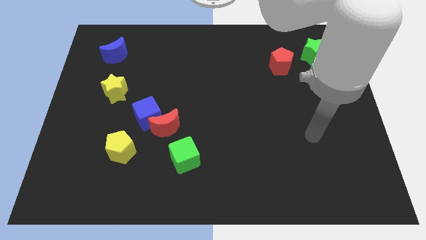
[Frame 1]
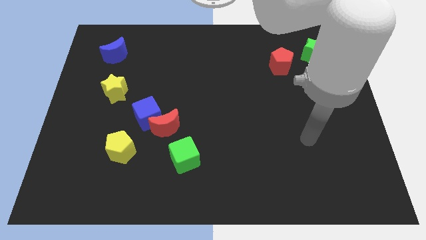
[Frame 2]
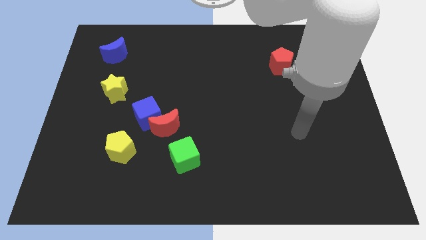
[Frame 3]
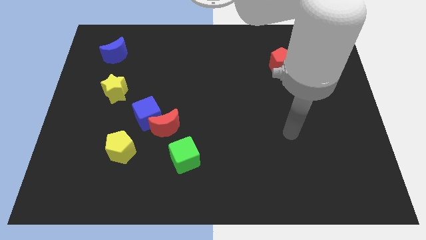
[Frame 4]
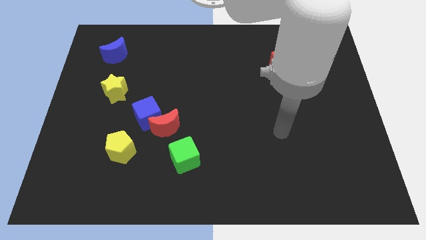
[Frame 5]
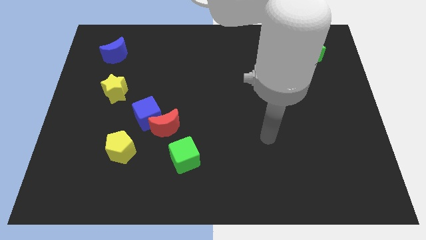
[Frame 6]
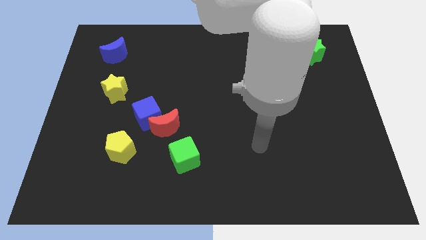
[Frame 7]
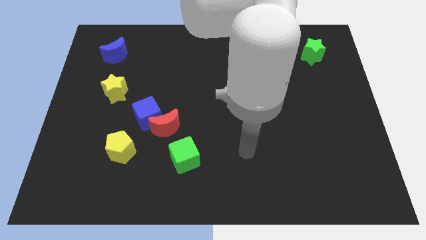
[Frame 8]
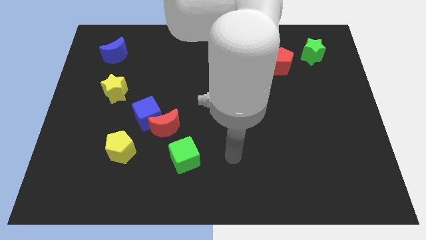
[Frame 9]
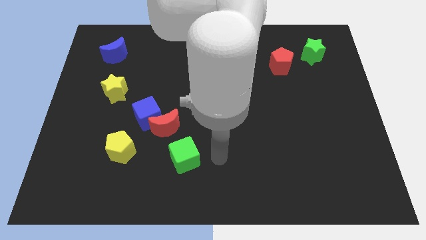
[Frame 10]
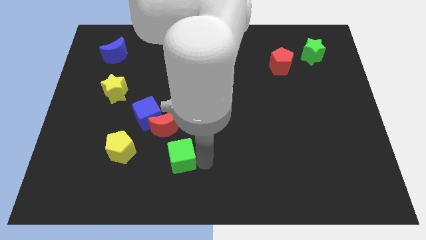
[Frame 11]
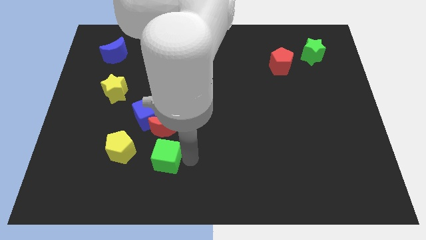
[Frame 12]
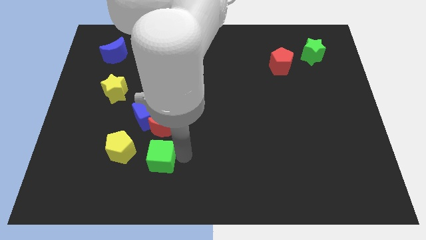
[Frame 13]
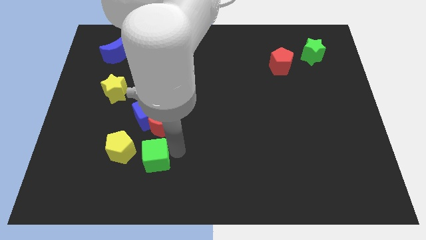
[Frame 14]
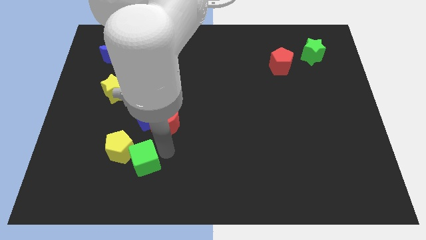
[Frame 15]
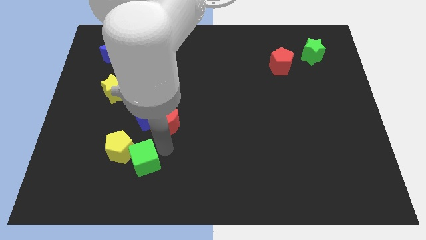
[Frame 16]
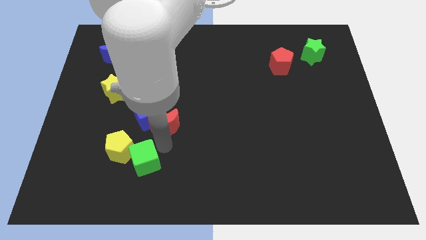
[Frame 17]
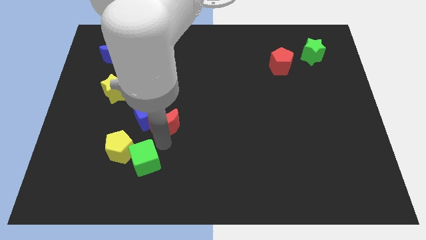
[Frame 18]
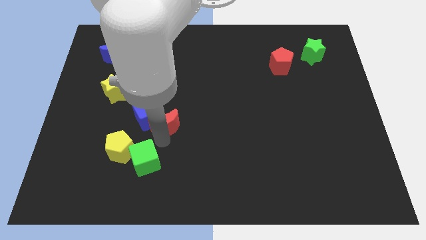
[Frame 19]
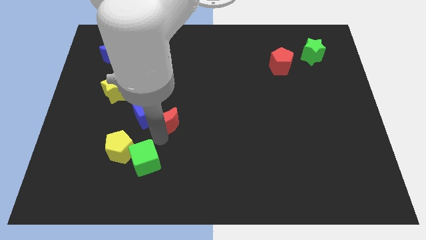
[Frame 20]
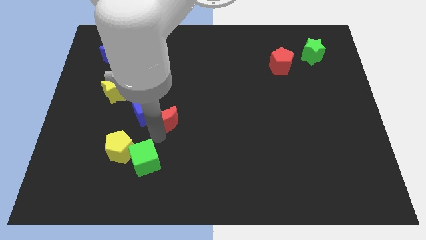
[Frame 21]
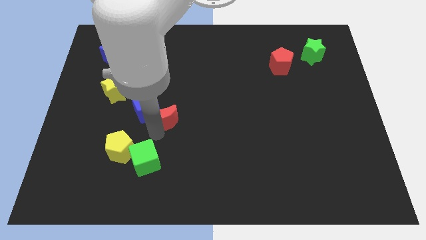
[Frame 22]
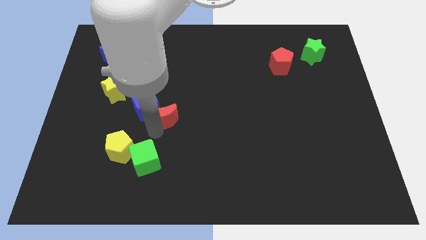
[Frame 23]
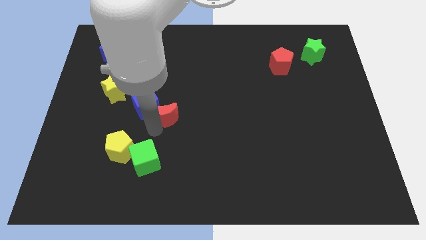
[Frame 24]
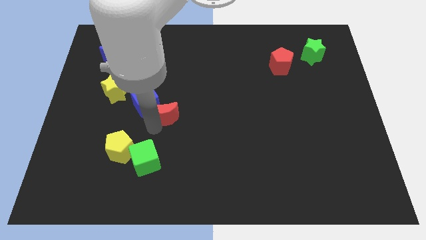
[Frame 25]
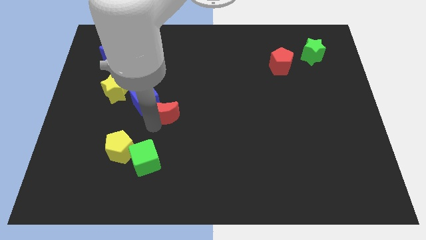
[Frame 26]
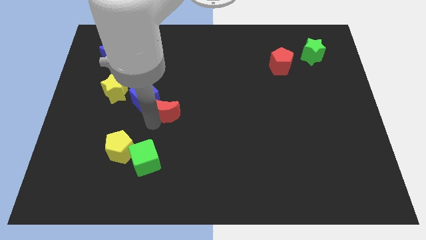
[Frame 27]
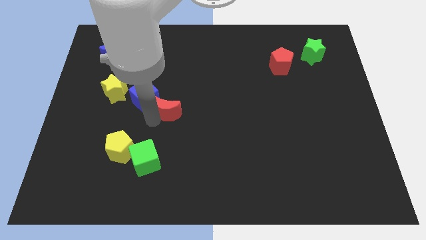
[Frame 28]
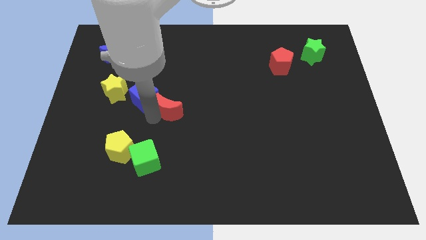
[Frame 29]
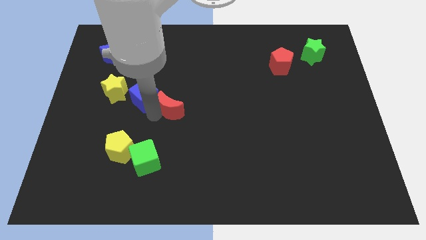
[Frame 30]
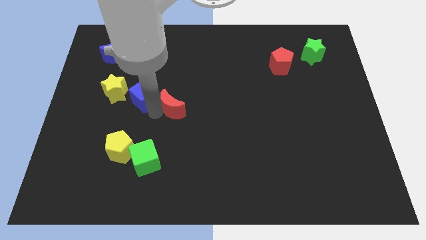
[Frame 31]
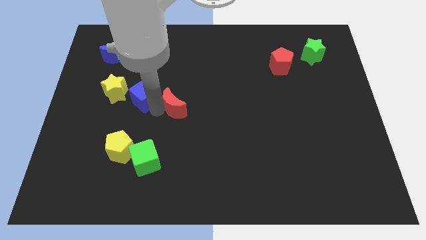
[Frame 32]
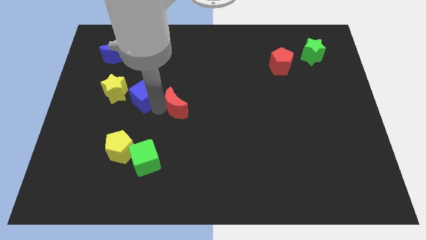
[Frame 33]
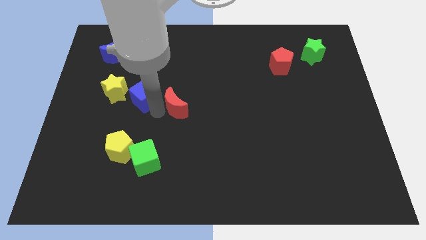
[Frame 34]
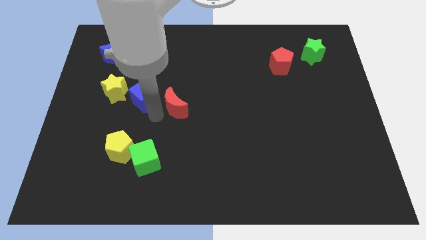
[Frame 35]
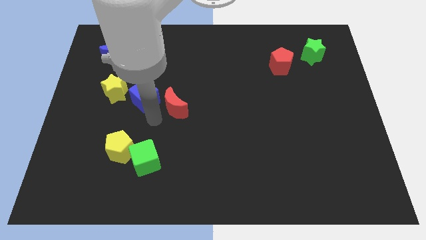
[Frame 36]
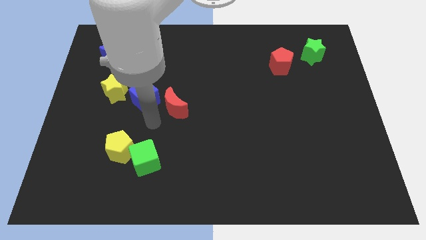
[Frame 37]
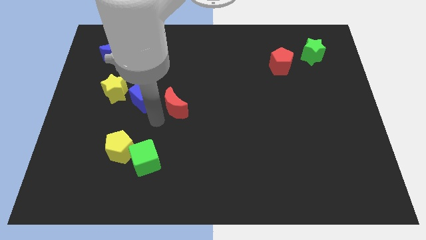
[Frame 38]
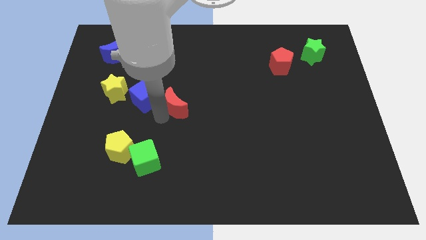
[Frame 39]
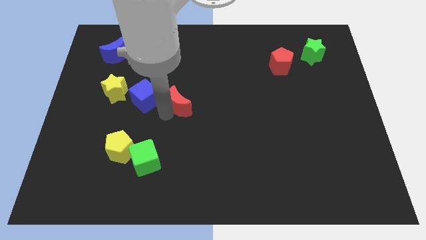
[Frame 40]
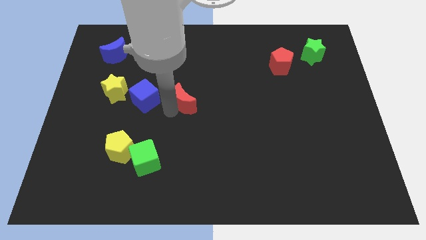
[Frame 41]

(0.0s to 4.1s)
separate the red moon from the blue cube and green cube

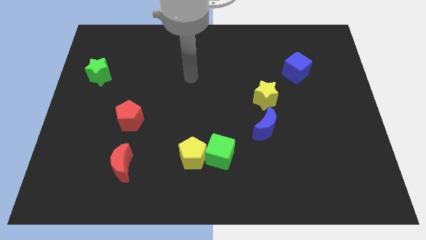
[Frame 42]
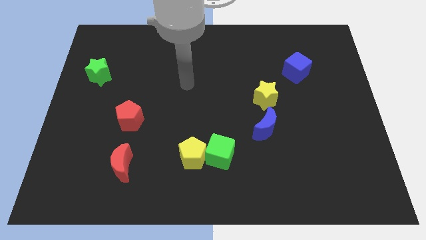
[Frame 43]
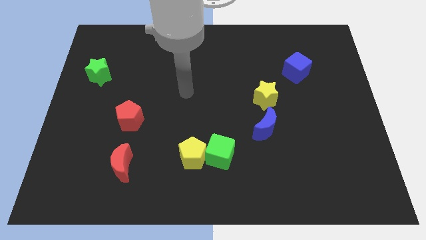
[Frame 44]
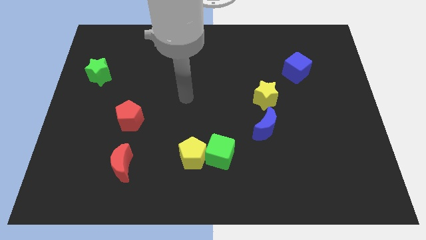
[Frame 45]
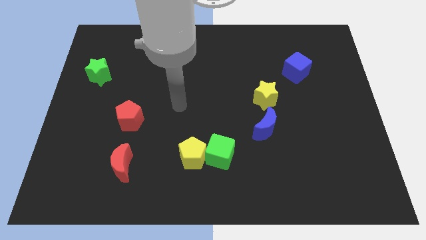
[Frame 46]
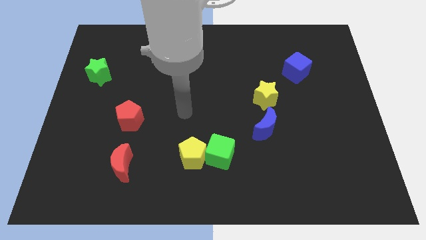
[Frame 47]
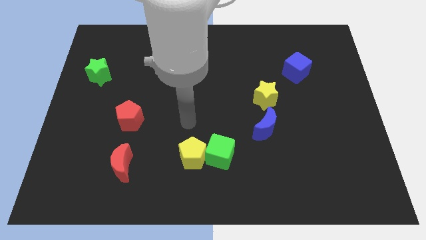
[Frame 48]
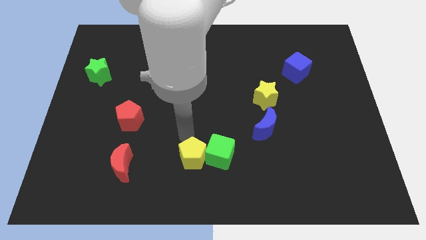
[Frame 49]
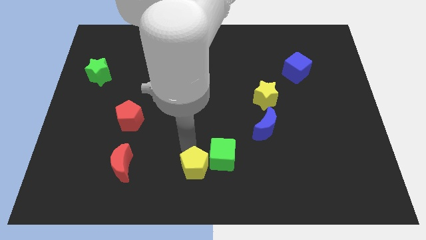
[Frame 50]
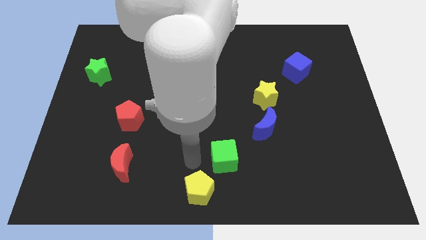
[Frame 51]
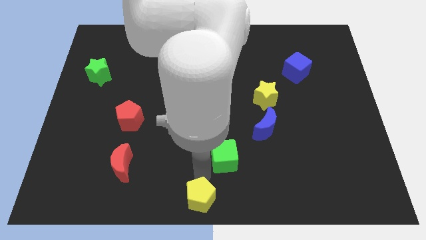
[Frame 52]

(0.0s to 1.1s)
move the green cube away from the yellow pentagon

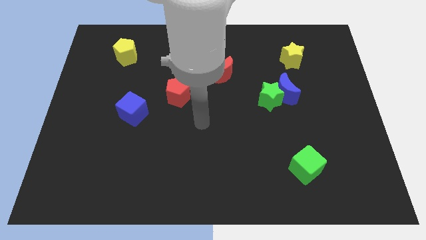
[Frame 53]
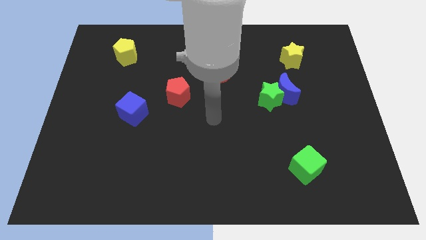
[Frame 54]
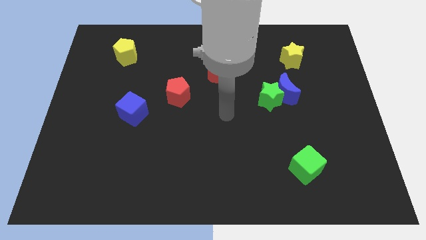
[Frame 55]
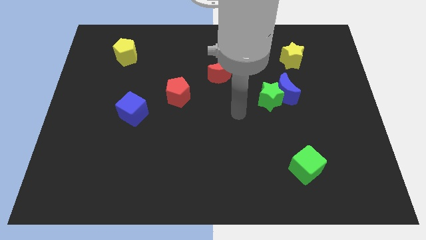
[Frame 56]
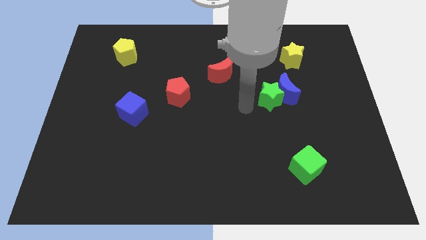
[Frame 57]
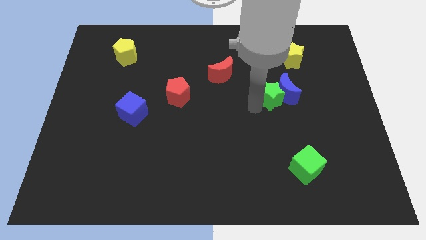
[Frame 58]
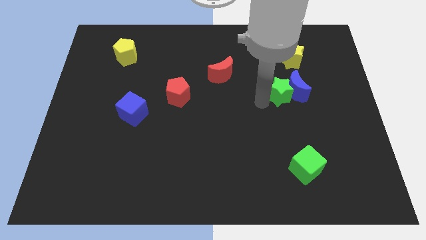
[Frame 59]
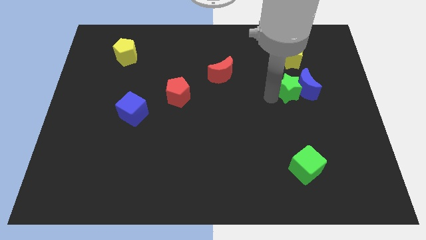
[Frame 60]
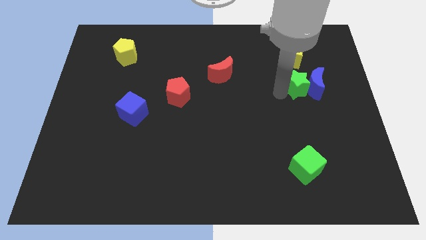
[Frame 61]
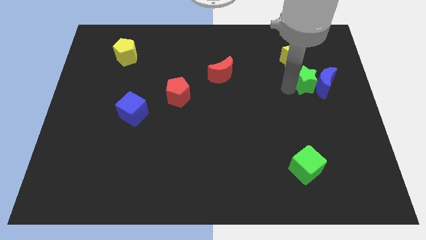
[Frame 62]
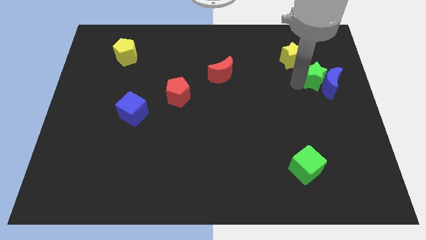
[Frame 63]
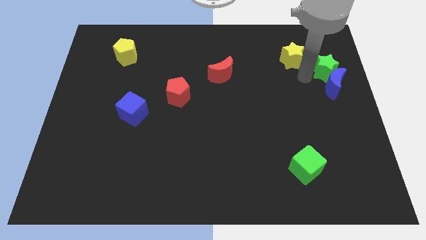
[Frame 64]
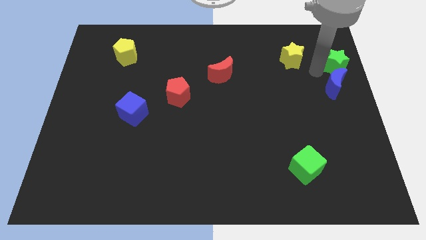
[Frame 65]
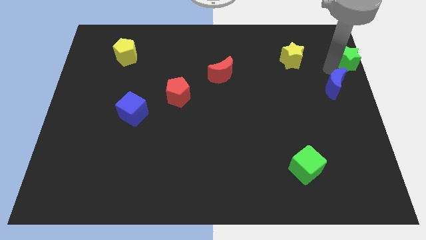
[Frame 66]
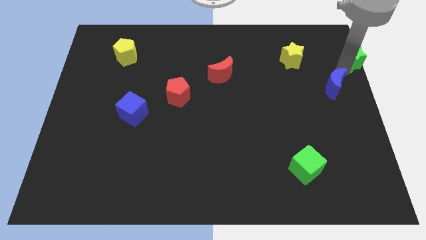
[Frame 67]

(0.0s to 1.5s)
separate the blue moon from the green star

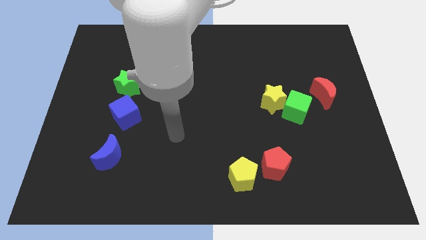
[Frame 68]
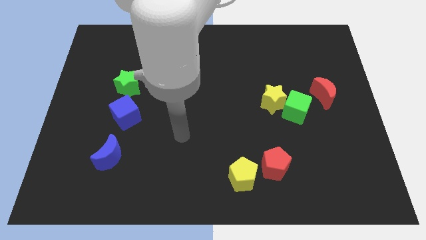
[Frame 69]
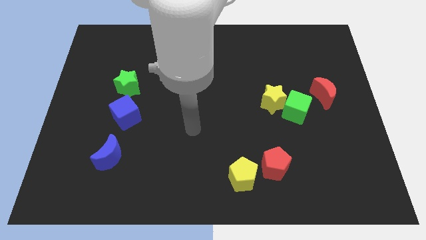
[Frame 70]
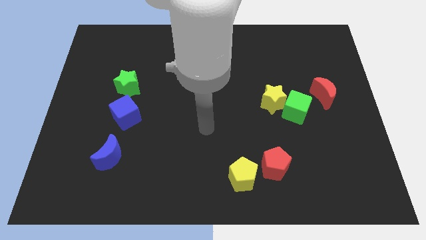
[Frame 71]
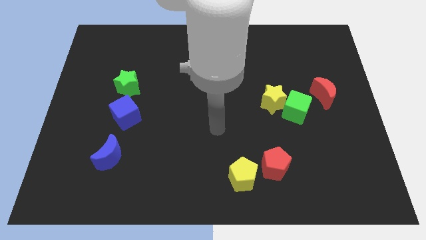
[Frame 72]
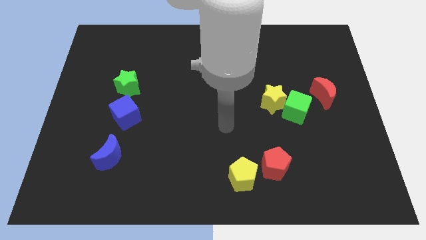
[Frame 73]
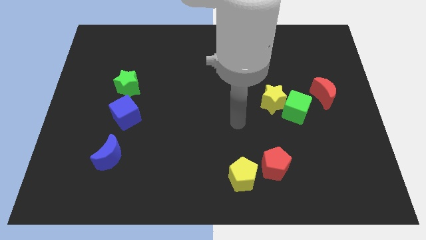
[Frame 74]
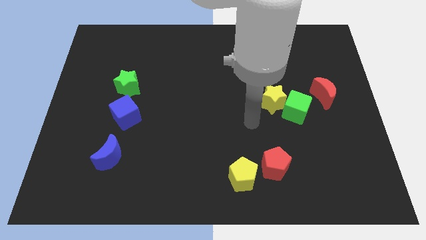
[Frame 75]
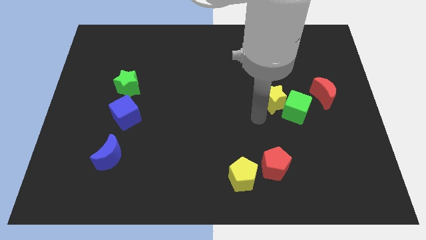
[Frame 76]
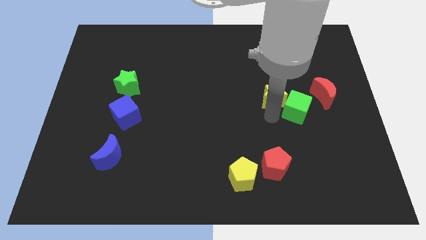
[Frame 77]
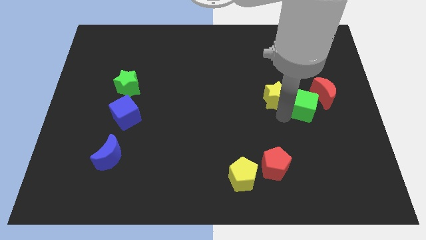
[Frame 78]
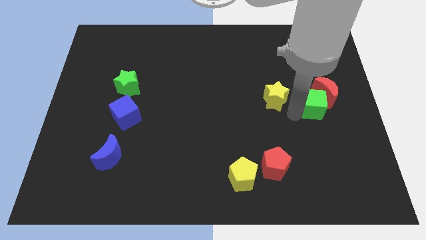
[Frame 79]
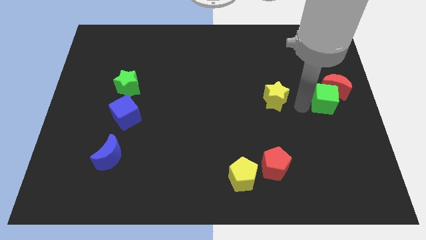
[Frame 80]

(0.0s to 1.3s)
separate the yellow star from the green cube

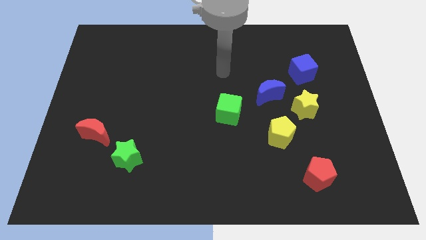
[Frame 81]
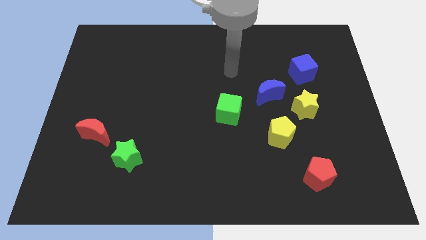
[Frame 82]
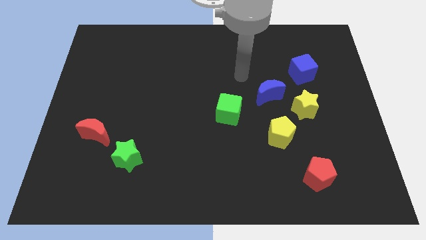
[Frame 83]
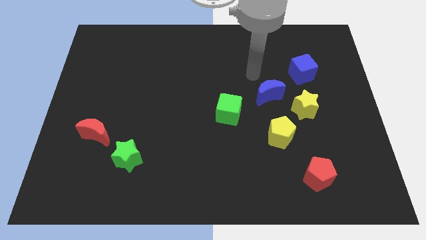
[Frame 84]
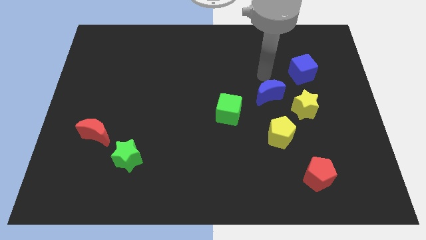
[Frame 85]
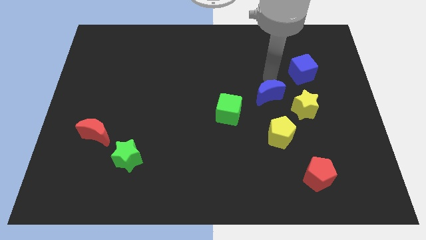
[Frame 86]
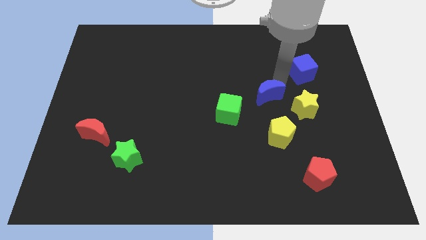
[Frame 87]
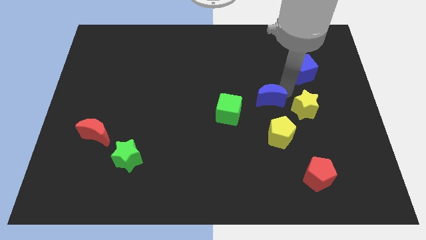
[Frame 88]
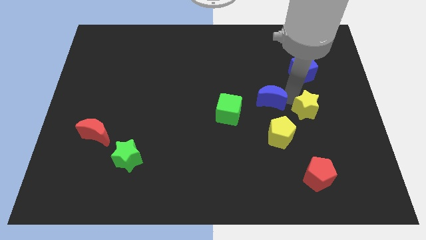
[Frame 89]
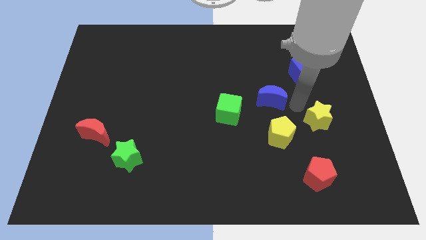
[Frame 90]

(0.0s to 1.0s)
move the blue moon away from the yellow star
